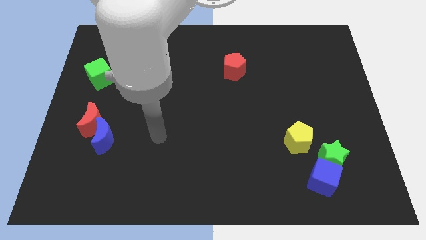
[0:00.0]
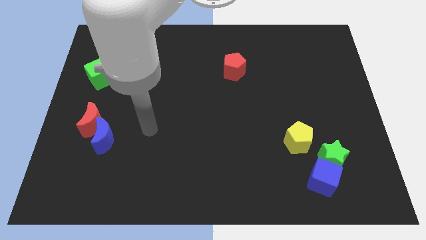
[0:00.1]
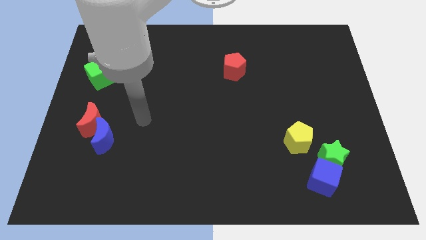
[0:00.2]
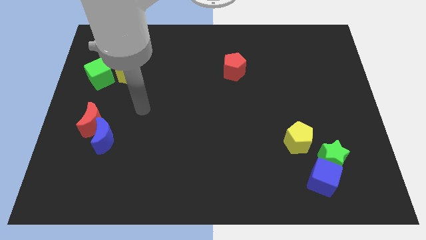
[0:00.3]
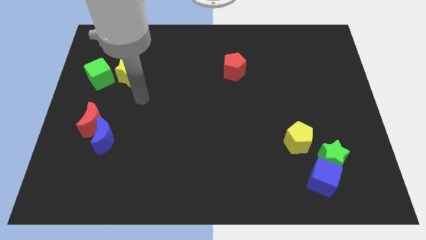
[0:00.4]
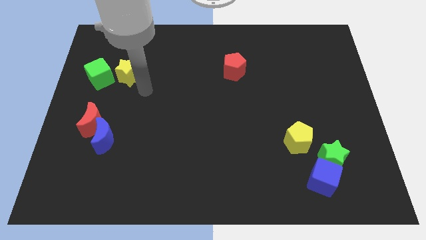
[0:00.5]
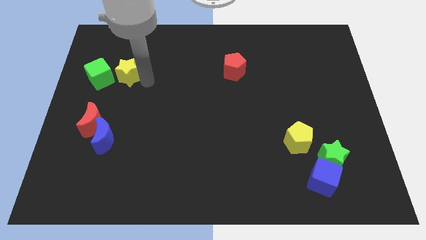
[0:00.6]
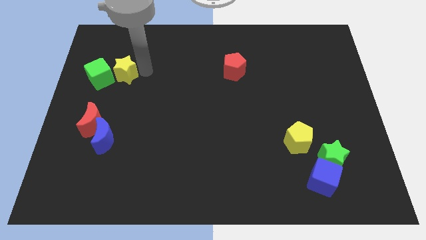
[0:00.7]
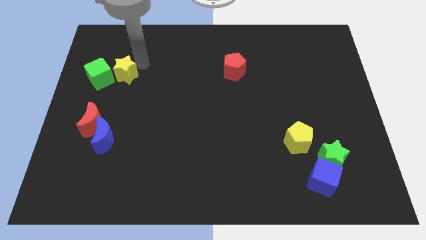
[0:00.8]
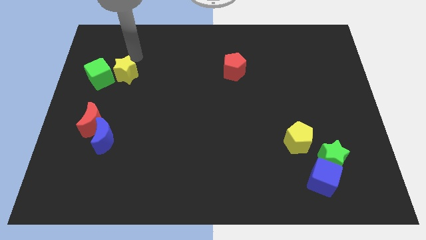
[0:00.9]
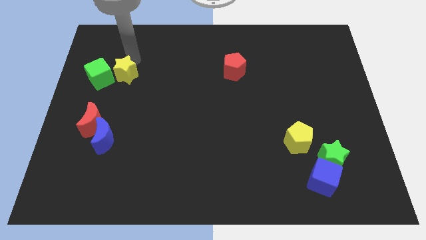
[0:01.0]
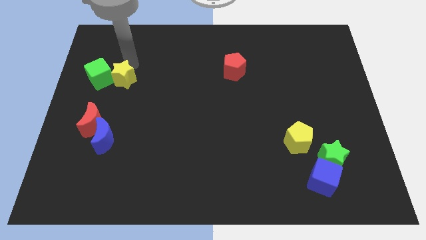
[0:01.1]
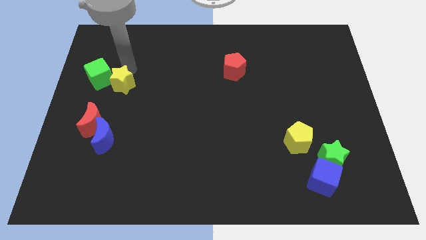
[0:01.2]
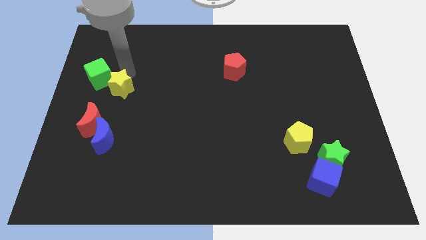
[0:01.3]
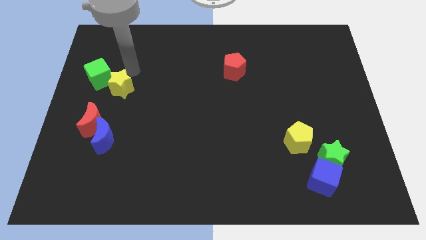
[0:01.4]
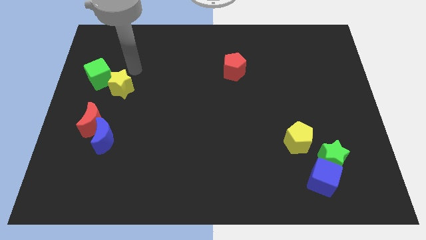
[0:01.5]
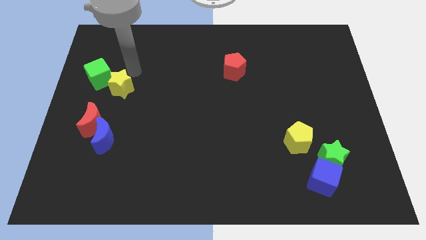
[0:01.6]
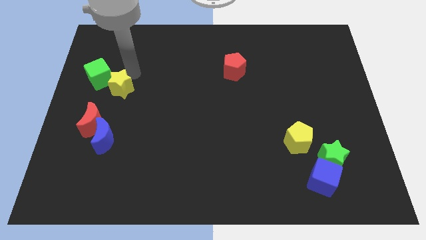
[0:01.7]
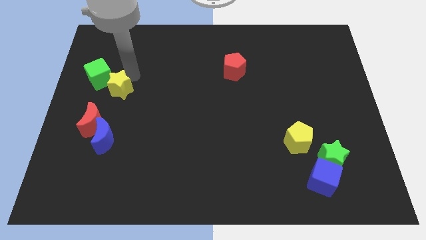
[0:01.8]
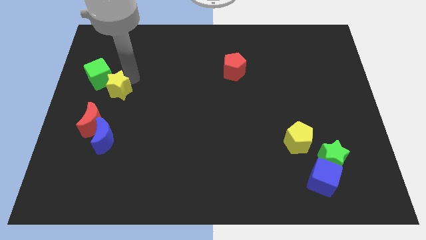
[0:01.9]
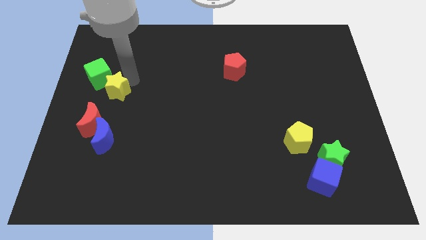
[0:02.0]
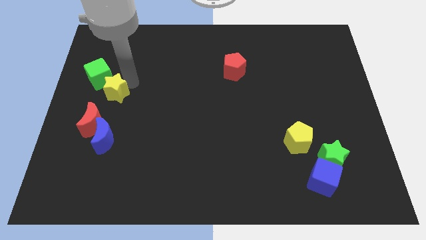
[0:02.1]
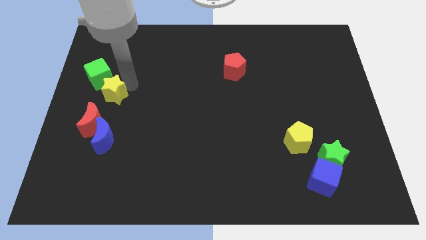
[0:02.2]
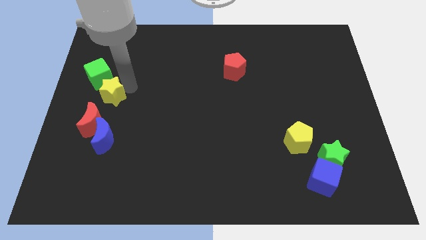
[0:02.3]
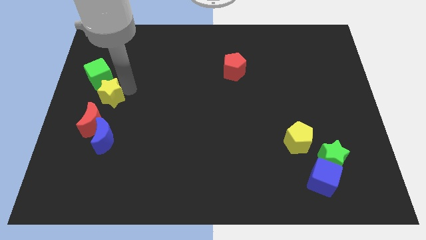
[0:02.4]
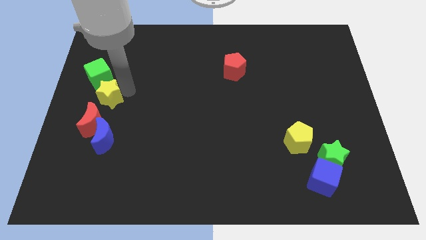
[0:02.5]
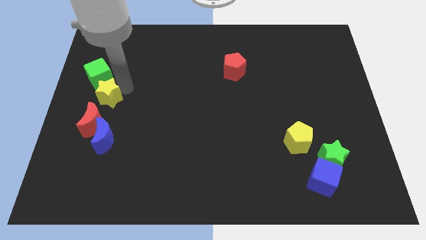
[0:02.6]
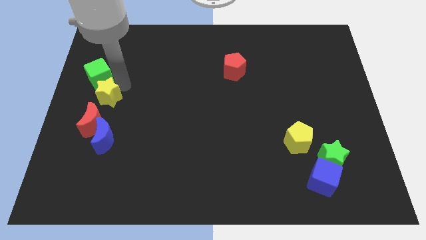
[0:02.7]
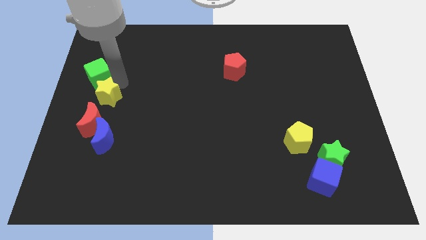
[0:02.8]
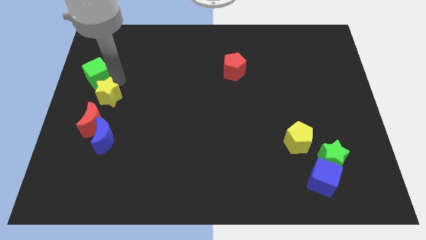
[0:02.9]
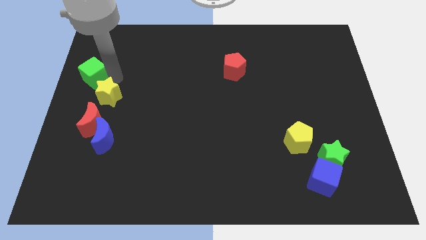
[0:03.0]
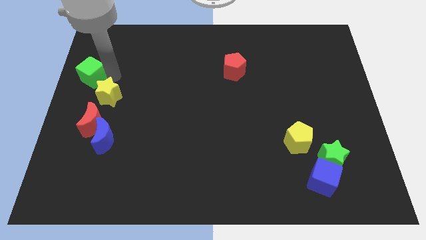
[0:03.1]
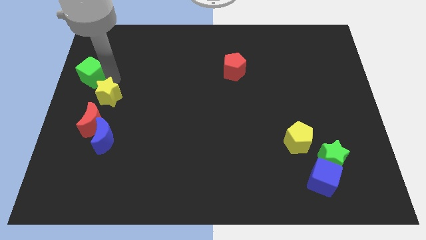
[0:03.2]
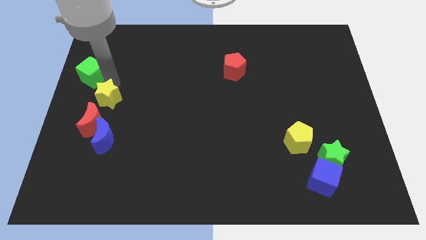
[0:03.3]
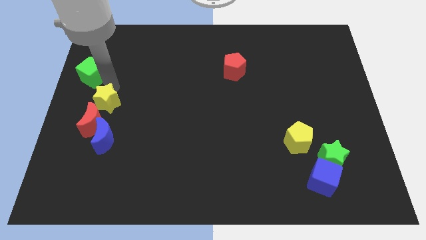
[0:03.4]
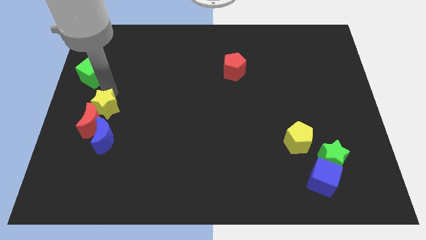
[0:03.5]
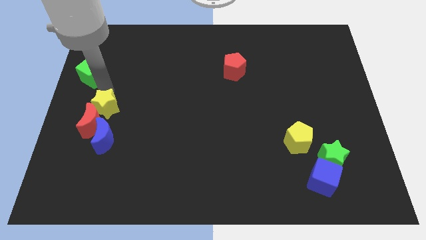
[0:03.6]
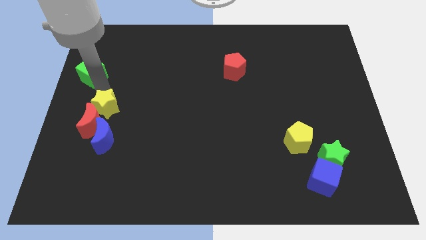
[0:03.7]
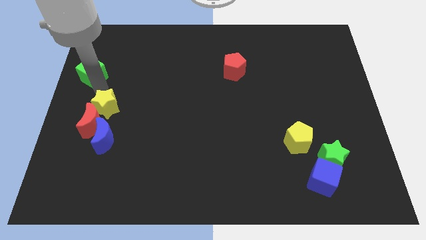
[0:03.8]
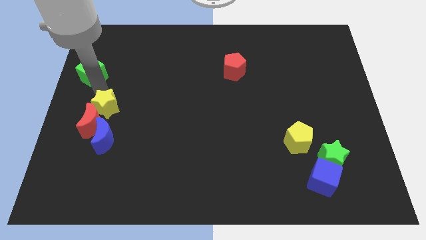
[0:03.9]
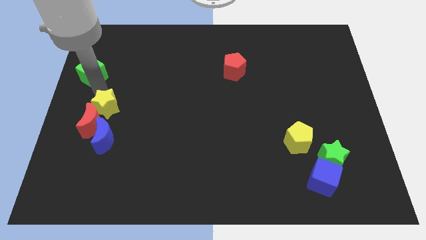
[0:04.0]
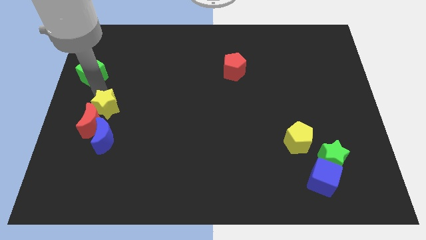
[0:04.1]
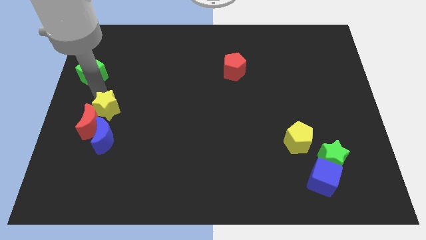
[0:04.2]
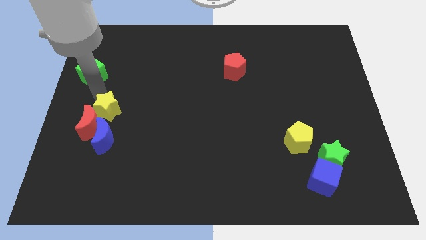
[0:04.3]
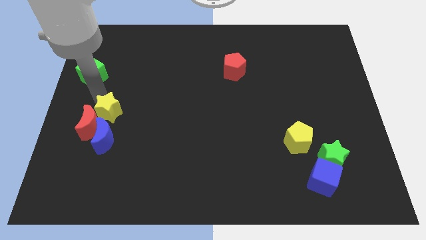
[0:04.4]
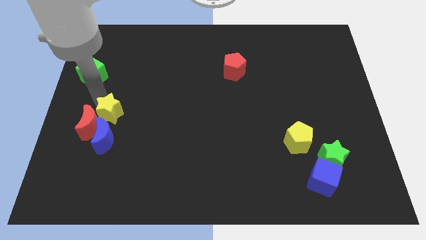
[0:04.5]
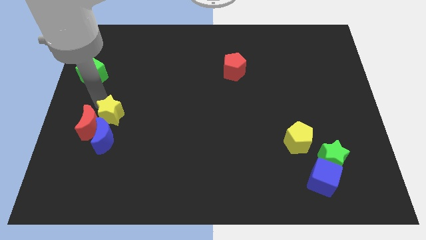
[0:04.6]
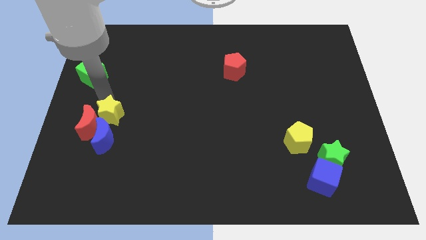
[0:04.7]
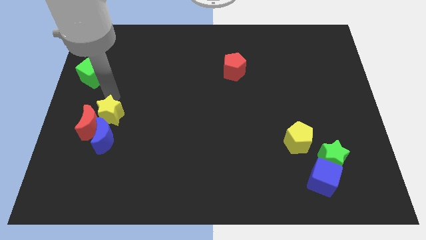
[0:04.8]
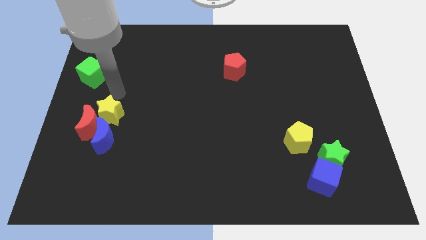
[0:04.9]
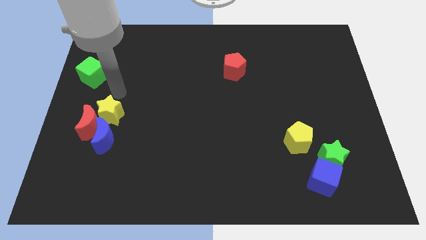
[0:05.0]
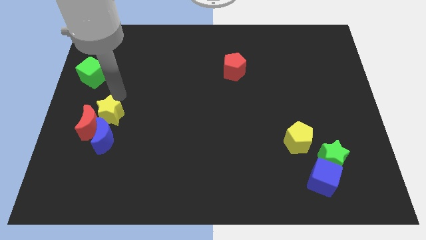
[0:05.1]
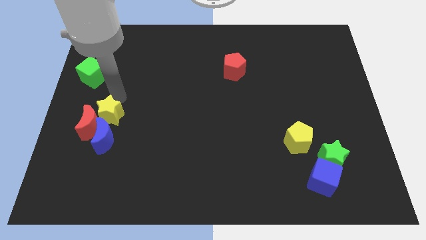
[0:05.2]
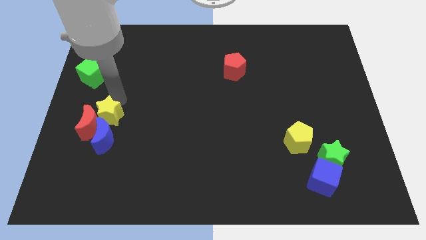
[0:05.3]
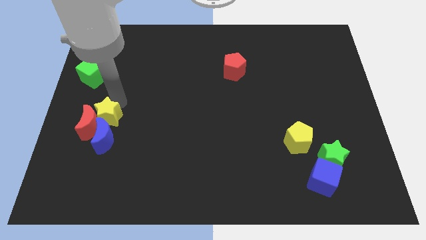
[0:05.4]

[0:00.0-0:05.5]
move the yellow star close to the blue moon

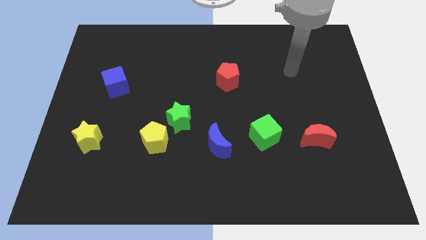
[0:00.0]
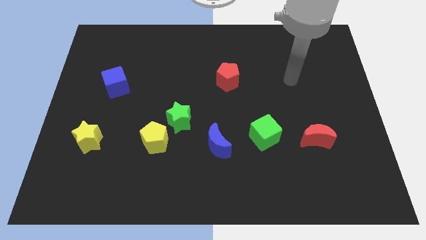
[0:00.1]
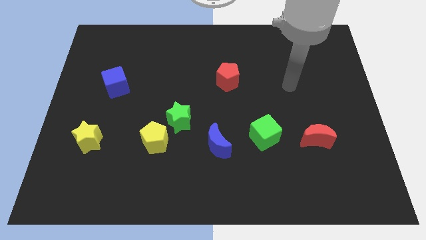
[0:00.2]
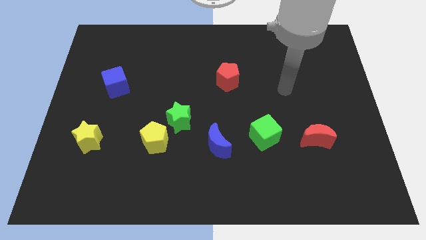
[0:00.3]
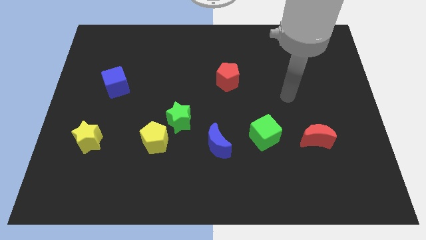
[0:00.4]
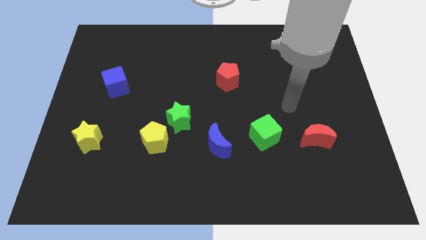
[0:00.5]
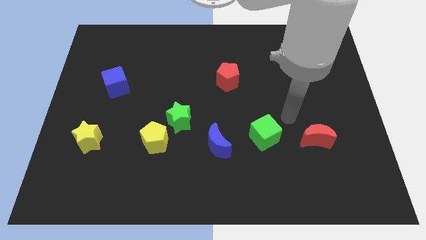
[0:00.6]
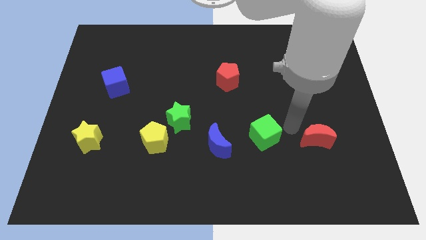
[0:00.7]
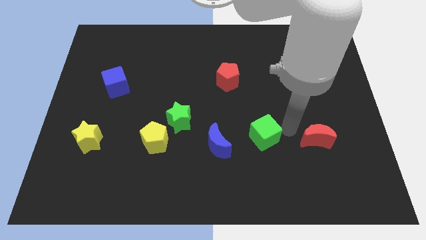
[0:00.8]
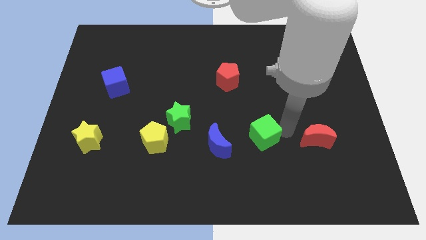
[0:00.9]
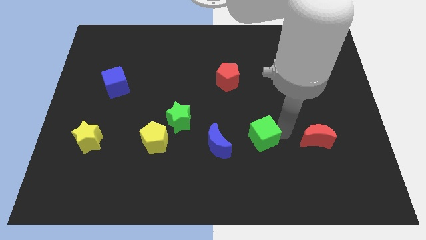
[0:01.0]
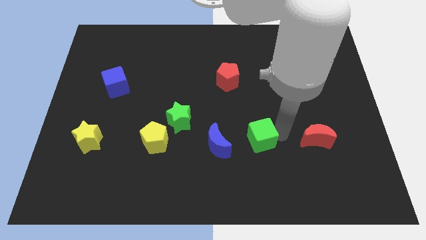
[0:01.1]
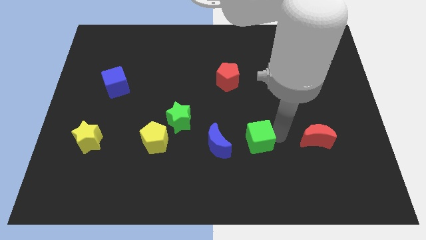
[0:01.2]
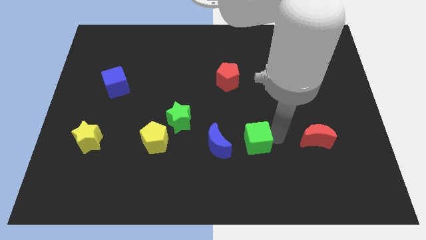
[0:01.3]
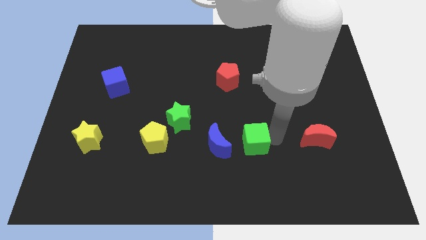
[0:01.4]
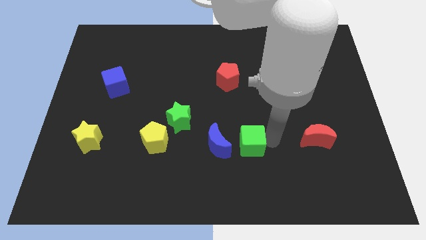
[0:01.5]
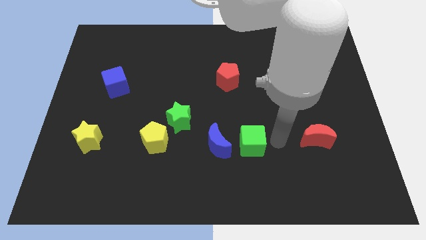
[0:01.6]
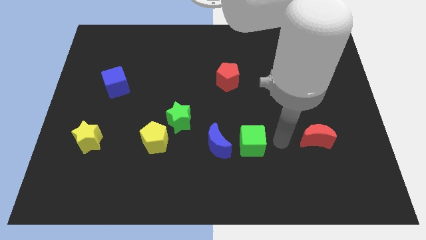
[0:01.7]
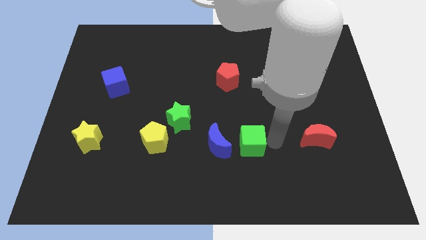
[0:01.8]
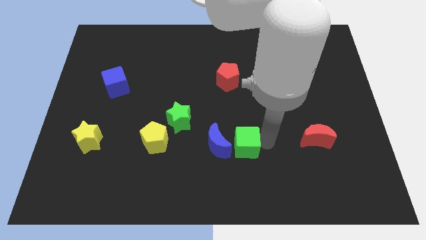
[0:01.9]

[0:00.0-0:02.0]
move the green cube towards the blue moon
